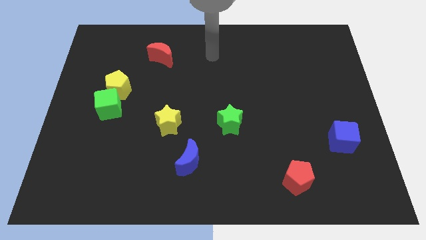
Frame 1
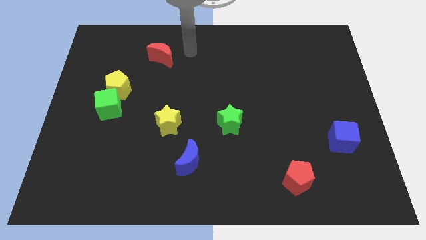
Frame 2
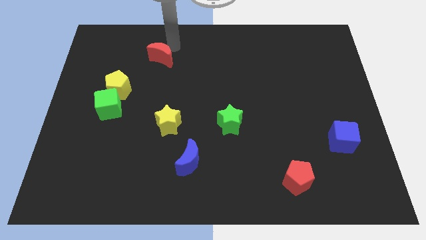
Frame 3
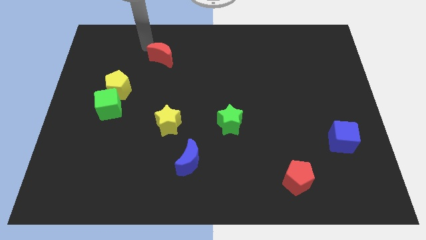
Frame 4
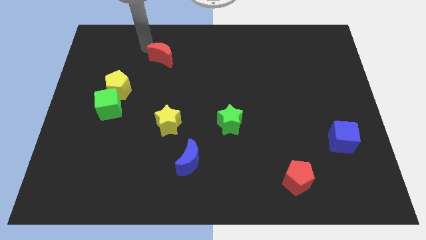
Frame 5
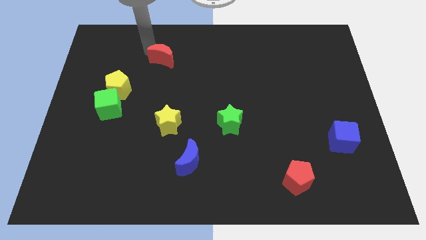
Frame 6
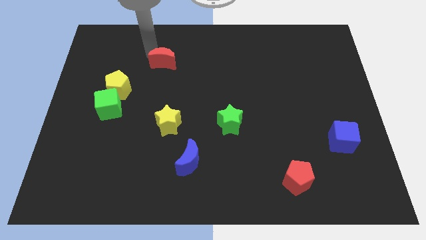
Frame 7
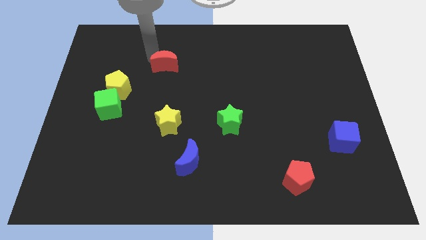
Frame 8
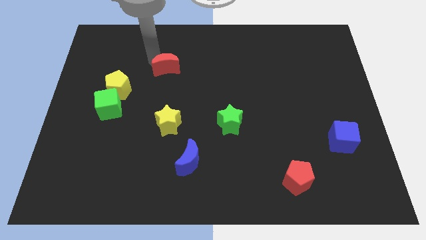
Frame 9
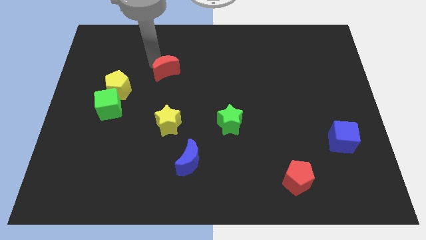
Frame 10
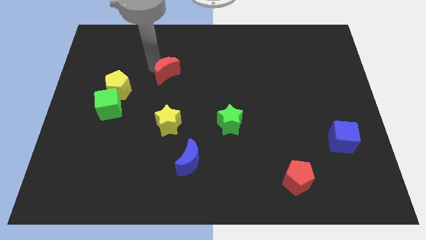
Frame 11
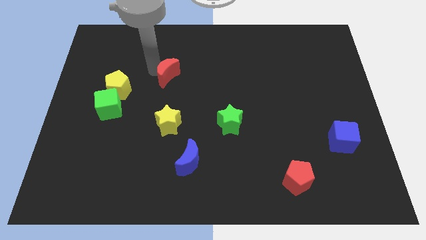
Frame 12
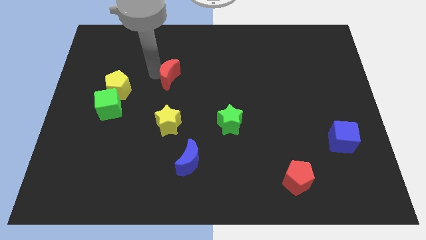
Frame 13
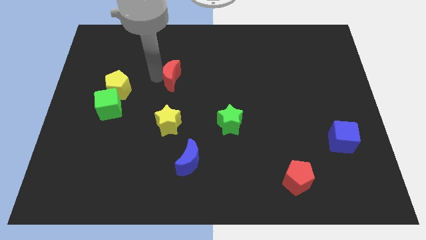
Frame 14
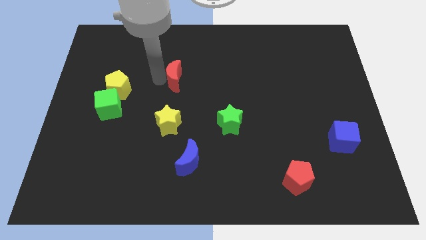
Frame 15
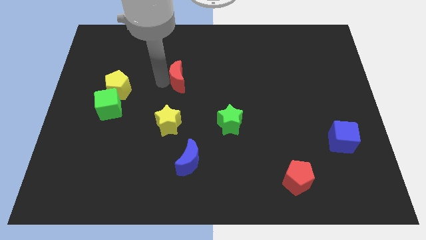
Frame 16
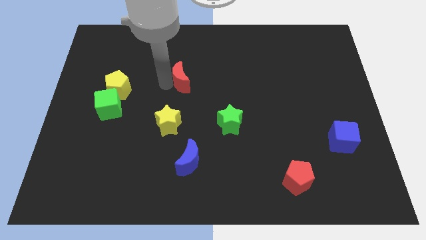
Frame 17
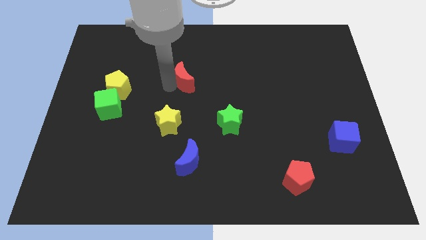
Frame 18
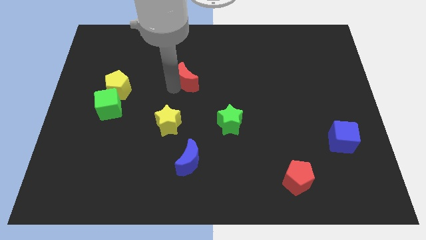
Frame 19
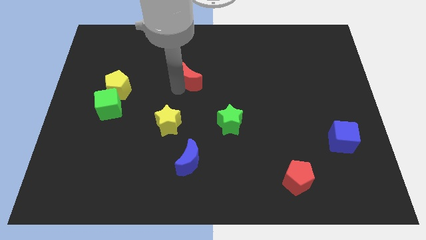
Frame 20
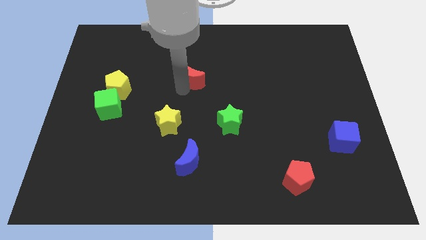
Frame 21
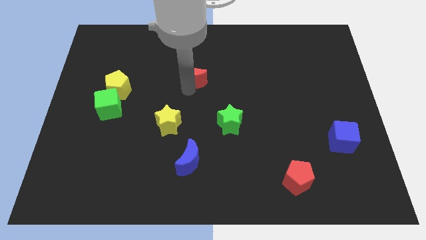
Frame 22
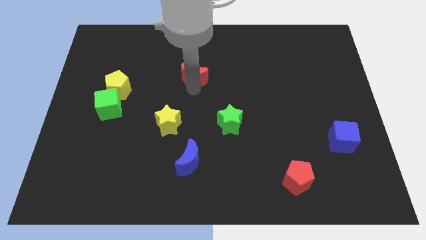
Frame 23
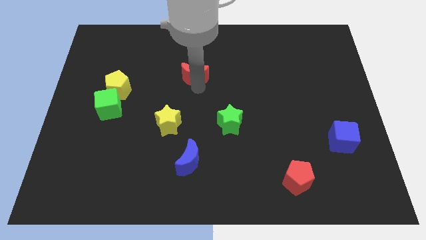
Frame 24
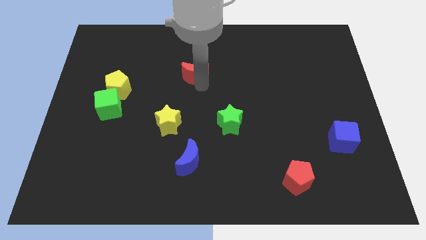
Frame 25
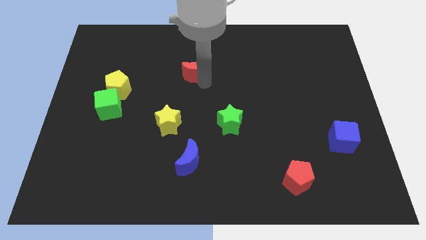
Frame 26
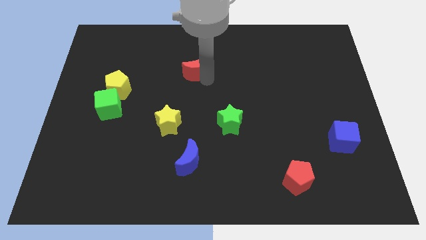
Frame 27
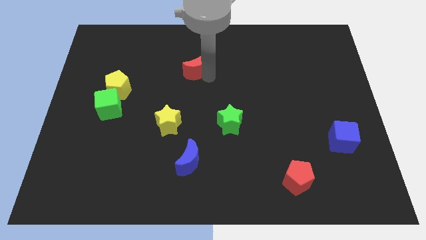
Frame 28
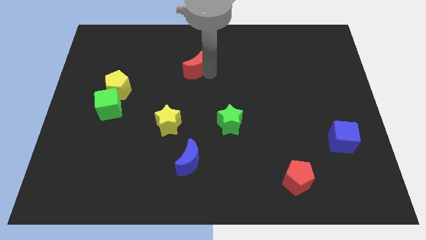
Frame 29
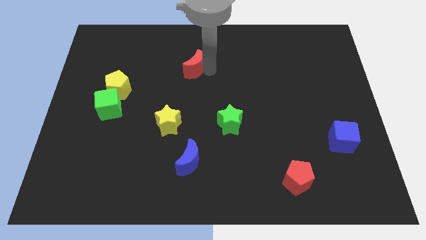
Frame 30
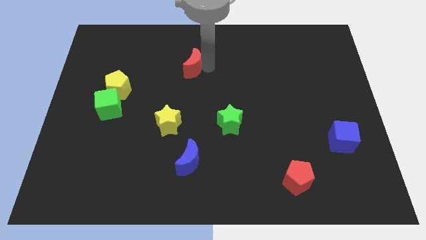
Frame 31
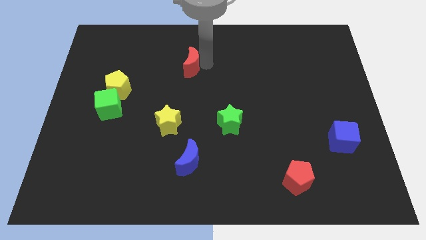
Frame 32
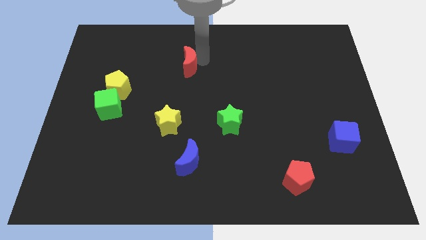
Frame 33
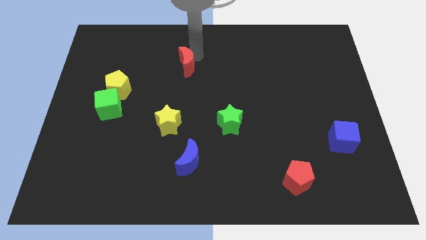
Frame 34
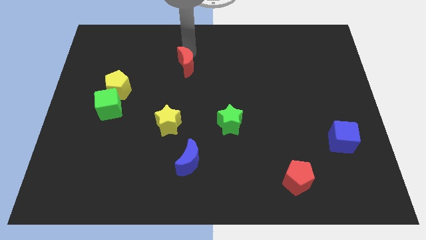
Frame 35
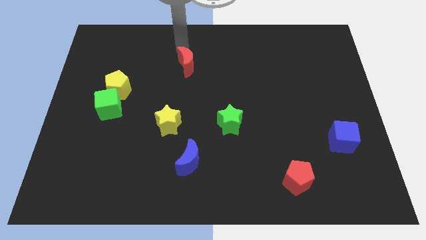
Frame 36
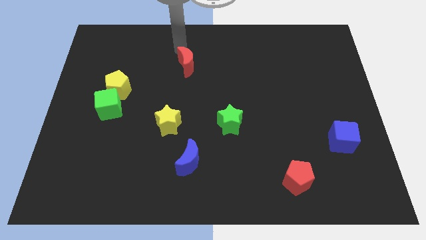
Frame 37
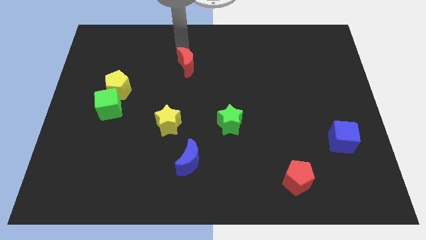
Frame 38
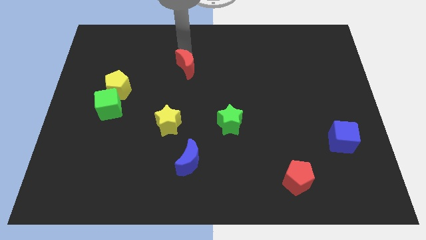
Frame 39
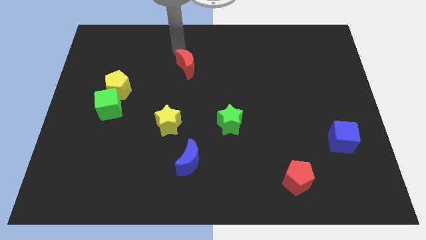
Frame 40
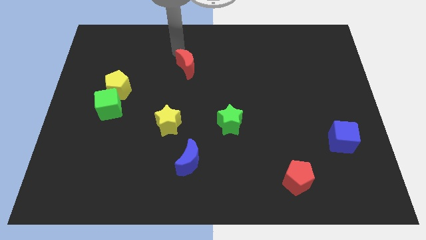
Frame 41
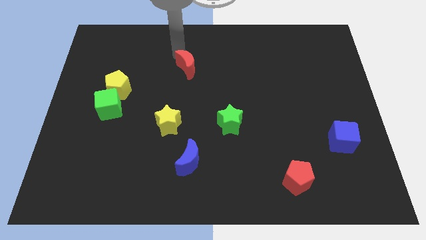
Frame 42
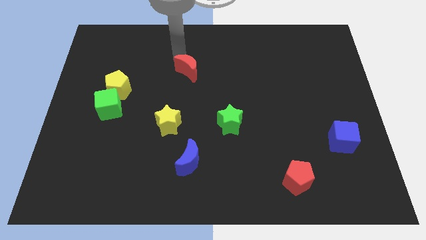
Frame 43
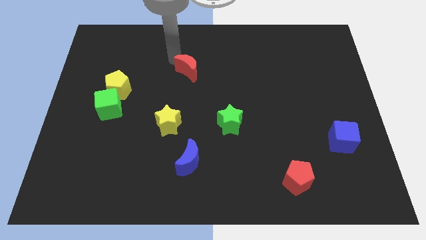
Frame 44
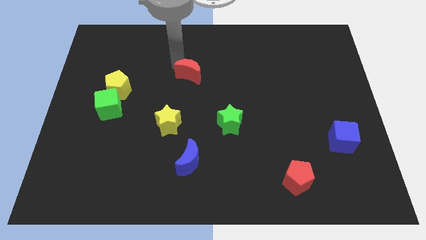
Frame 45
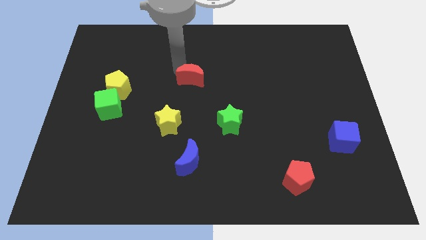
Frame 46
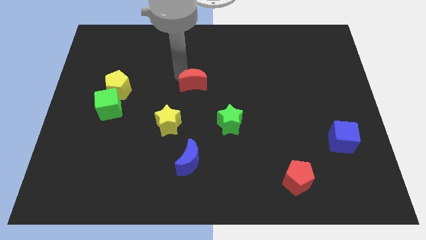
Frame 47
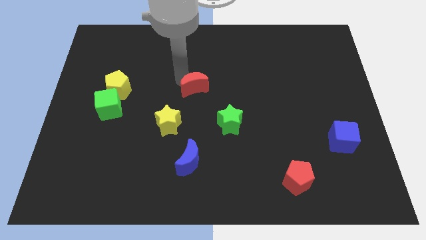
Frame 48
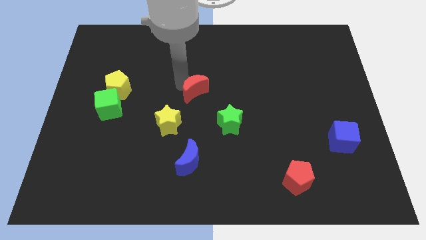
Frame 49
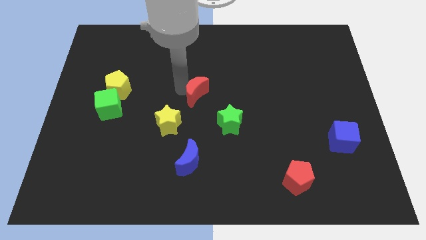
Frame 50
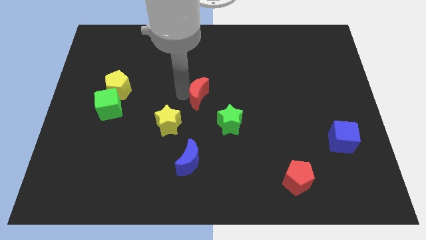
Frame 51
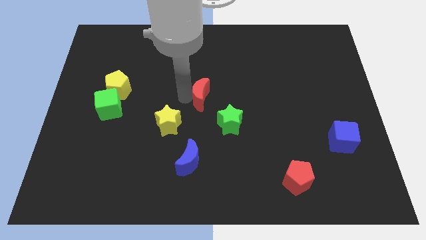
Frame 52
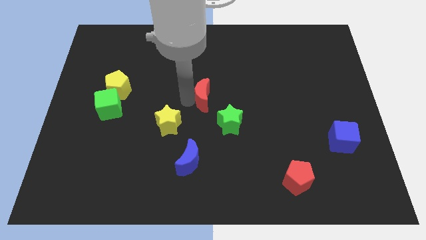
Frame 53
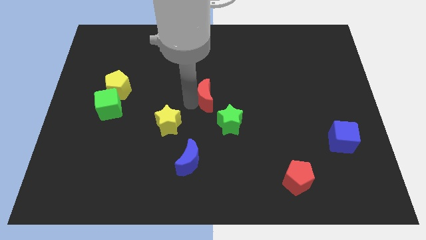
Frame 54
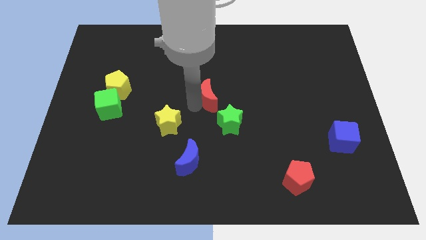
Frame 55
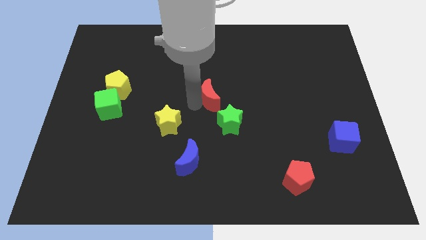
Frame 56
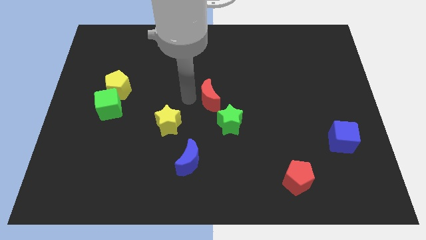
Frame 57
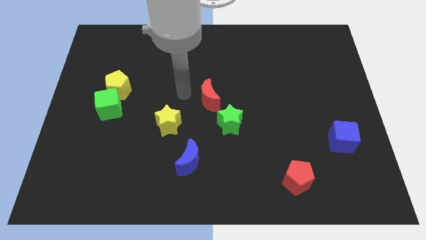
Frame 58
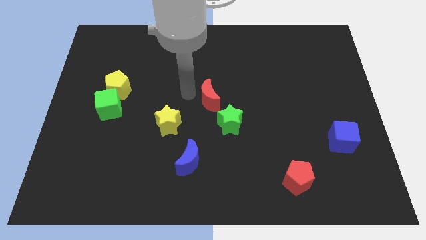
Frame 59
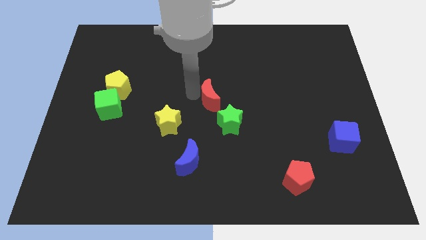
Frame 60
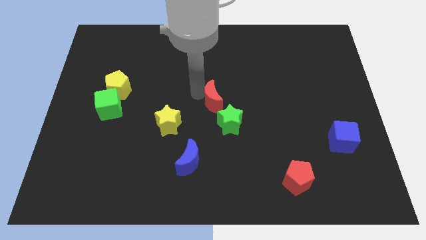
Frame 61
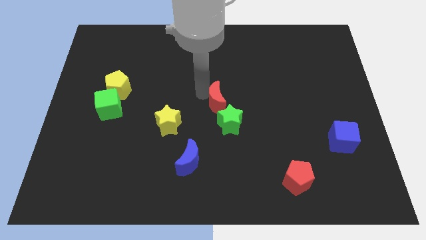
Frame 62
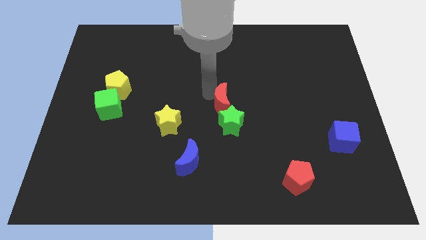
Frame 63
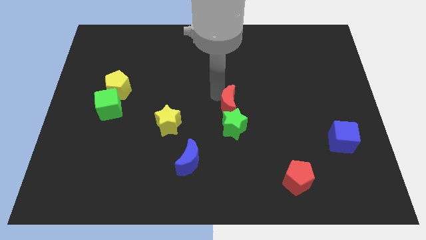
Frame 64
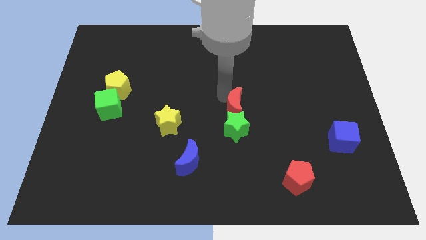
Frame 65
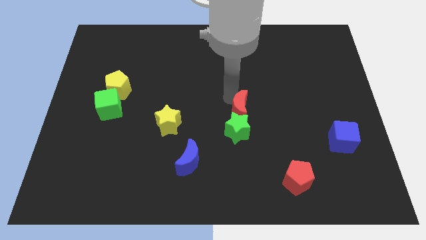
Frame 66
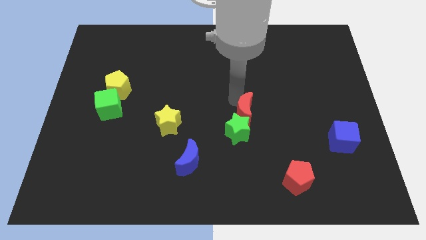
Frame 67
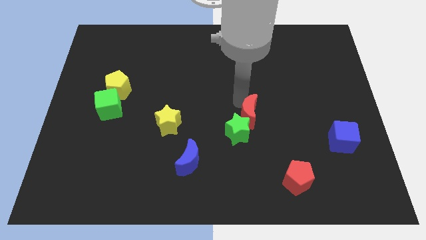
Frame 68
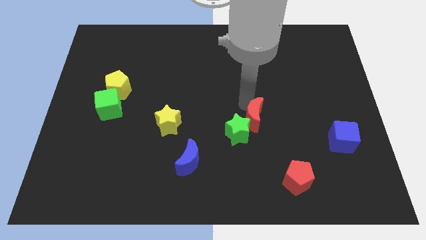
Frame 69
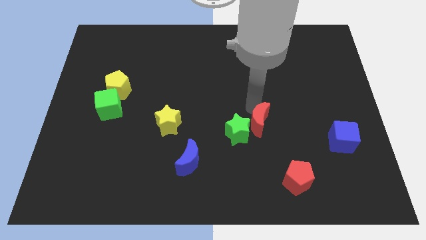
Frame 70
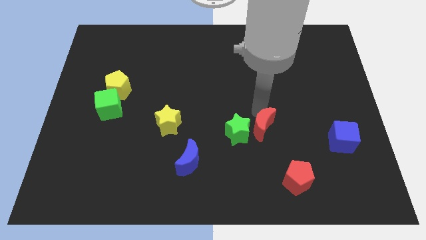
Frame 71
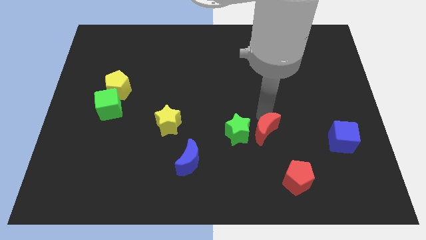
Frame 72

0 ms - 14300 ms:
move the red moon to the bottom right of the green star
